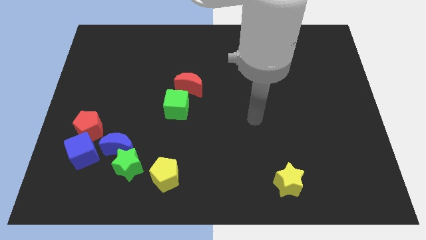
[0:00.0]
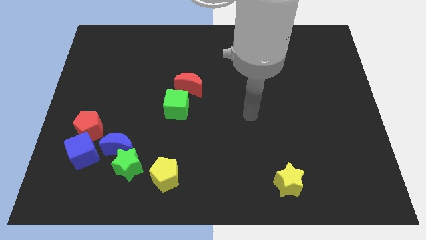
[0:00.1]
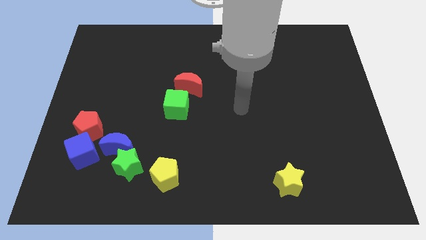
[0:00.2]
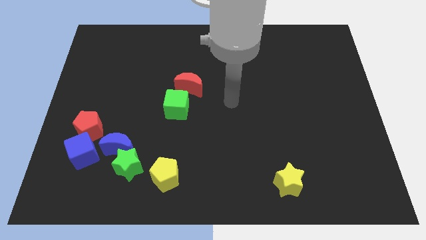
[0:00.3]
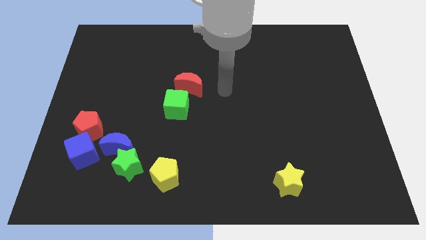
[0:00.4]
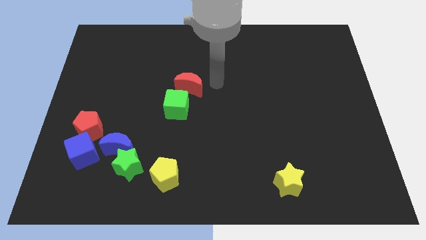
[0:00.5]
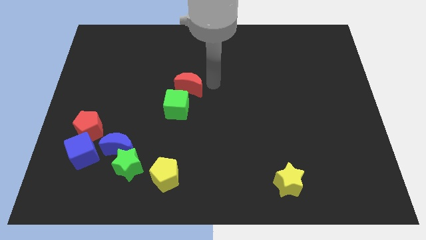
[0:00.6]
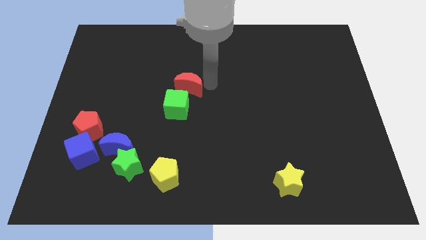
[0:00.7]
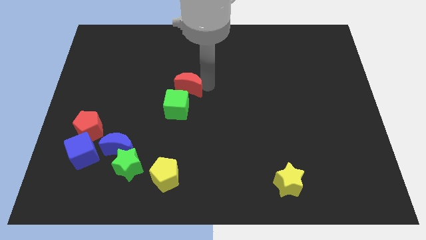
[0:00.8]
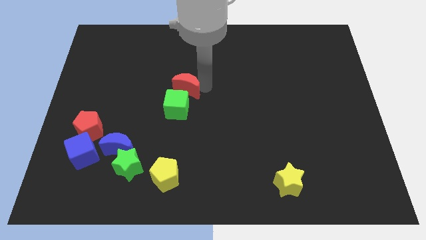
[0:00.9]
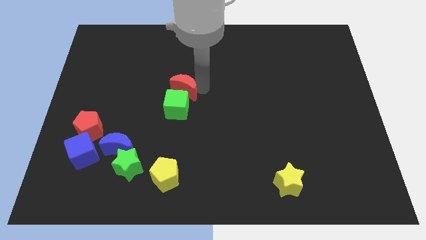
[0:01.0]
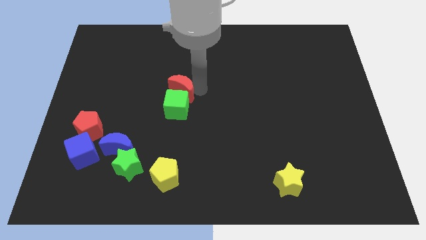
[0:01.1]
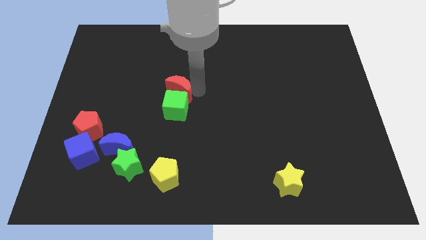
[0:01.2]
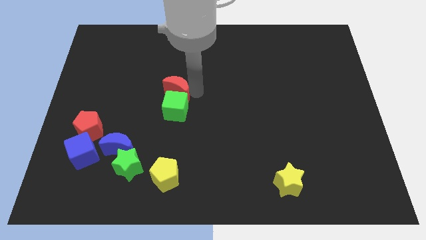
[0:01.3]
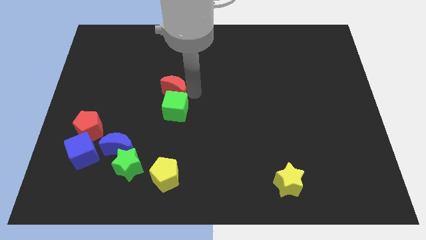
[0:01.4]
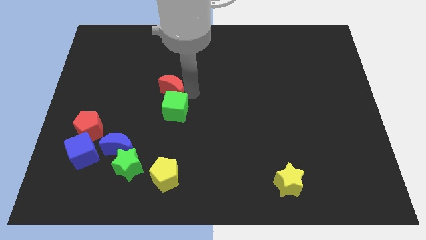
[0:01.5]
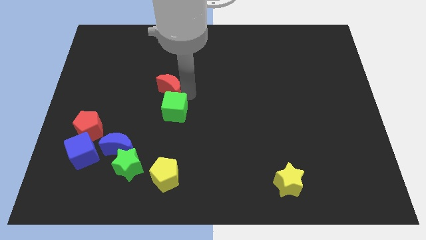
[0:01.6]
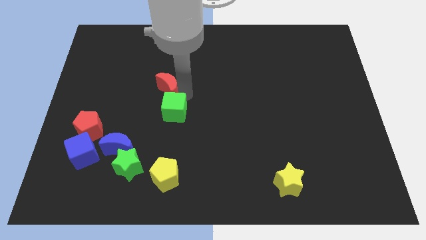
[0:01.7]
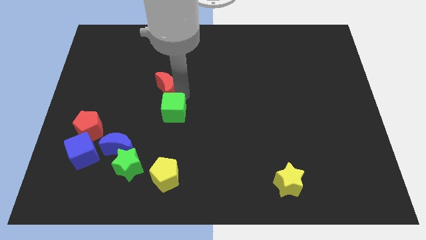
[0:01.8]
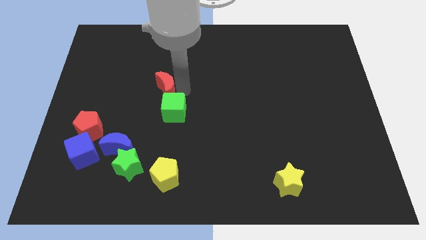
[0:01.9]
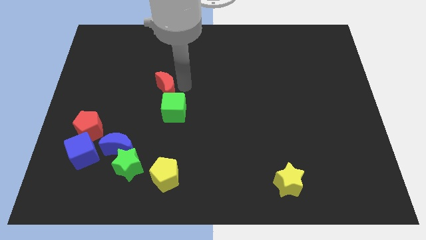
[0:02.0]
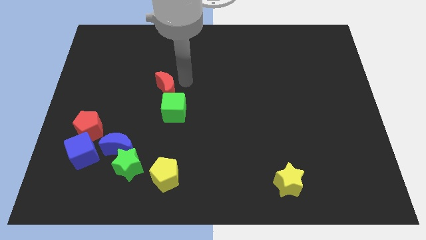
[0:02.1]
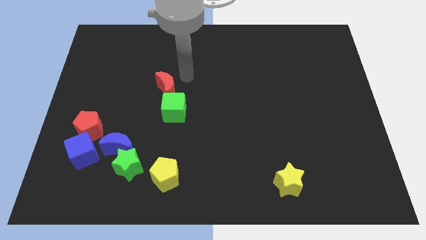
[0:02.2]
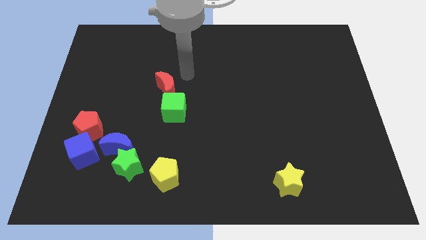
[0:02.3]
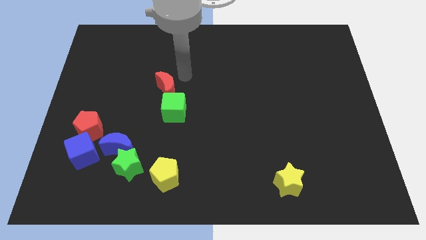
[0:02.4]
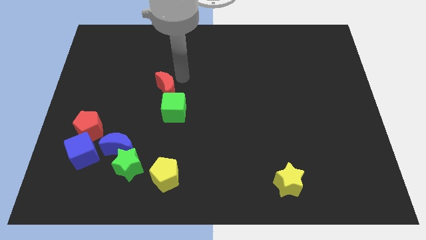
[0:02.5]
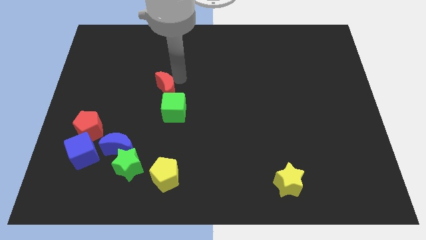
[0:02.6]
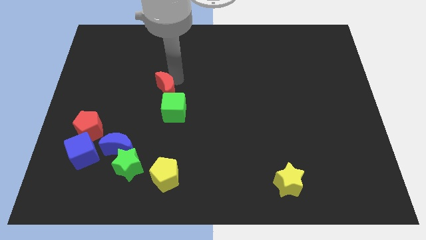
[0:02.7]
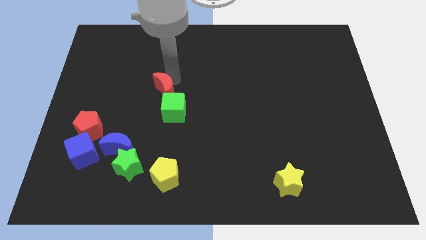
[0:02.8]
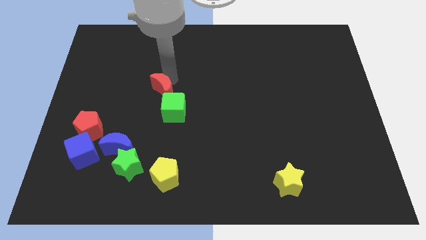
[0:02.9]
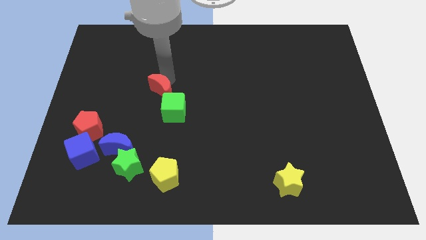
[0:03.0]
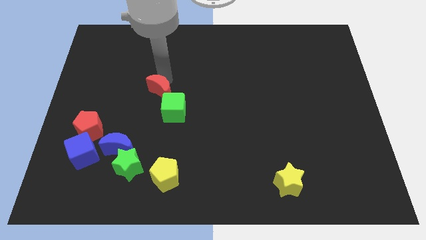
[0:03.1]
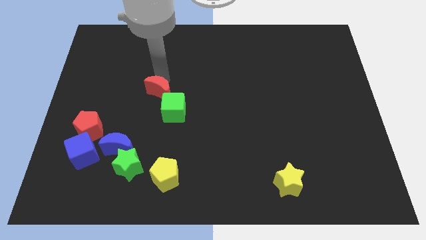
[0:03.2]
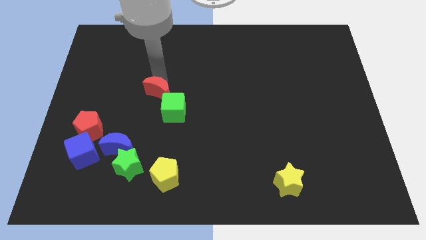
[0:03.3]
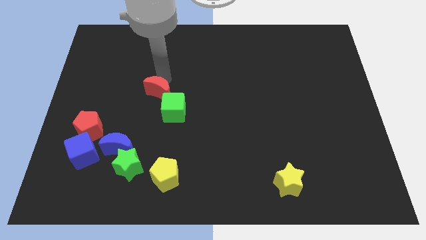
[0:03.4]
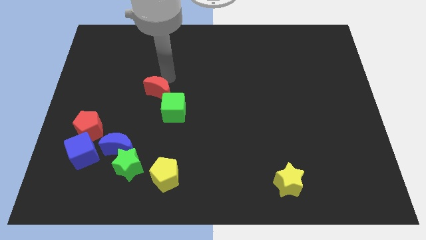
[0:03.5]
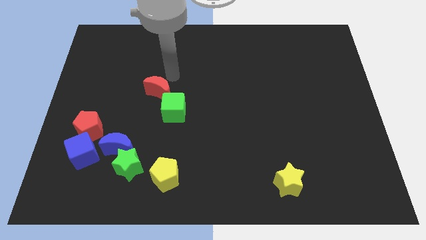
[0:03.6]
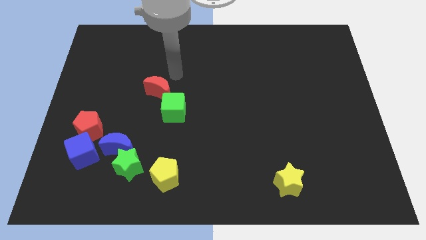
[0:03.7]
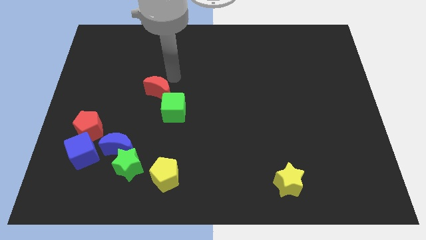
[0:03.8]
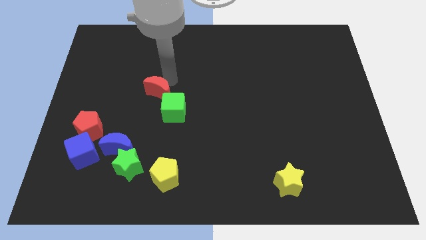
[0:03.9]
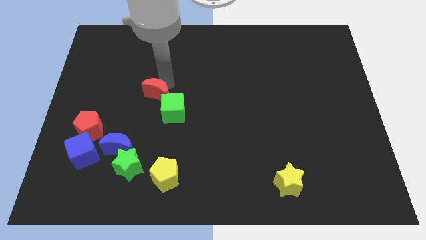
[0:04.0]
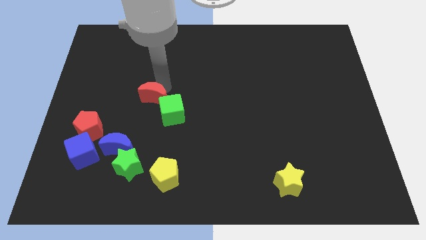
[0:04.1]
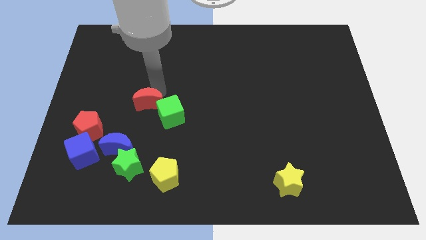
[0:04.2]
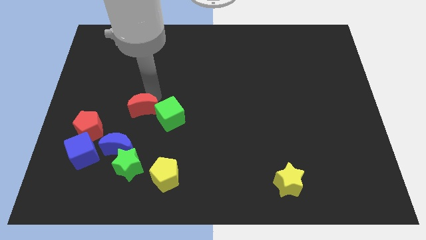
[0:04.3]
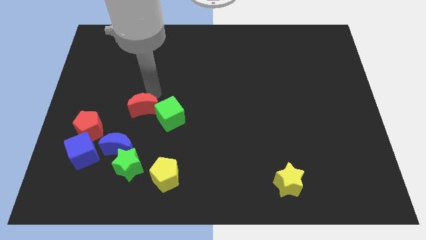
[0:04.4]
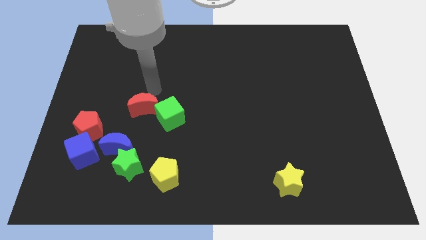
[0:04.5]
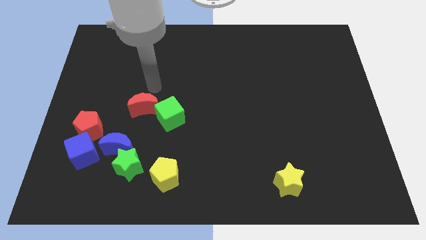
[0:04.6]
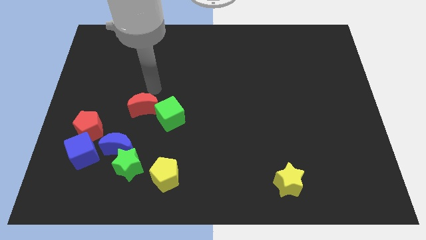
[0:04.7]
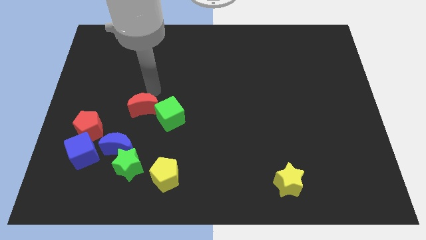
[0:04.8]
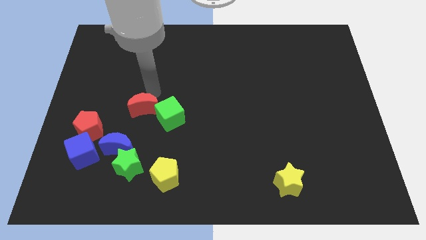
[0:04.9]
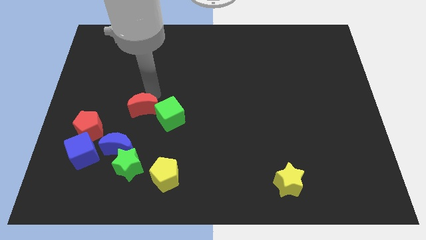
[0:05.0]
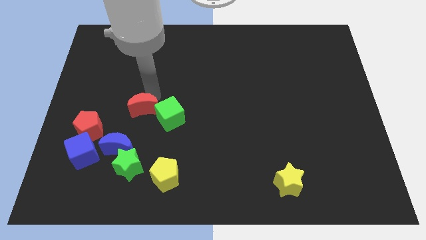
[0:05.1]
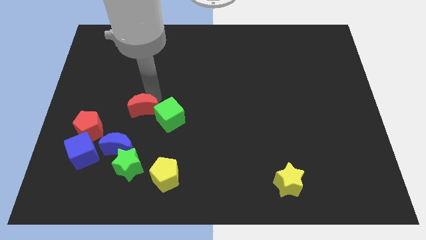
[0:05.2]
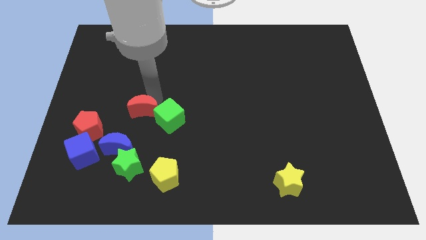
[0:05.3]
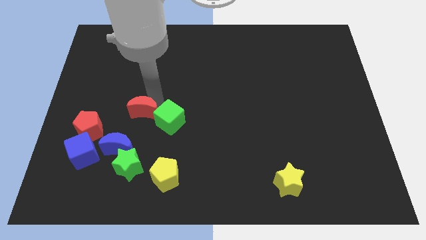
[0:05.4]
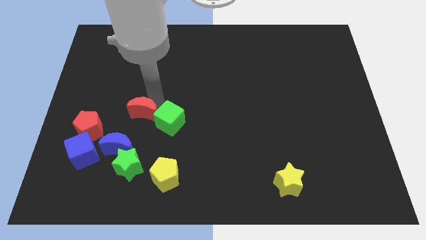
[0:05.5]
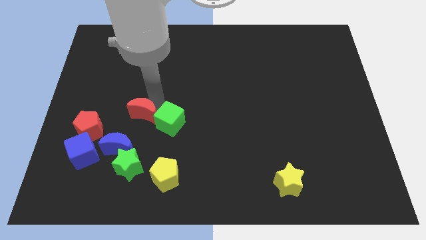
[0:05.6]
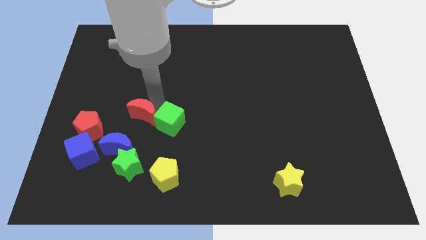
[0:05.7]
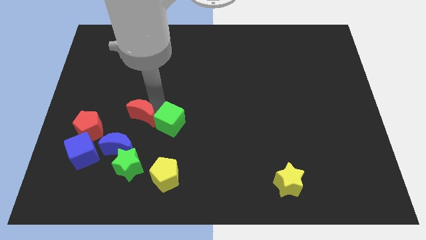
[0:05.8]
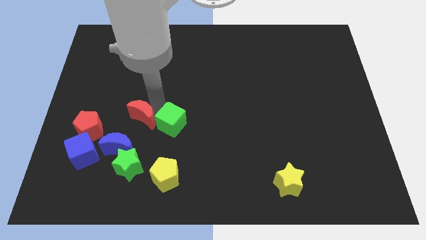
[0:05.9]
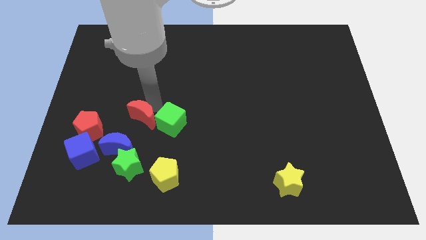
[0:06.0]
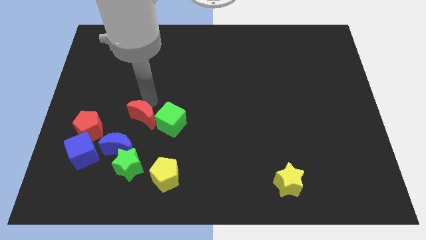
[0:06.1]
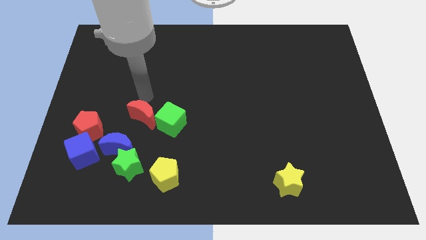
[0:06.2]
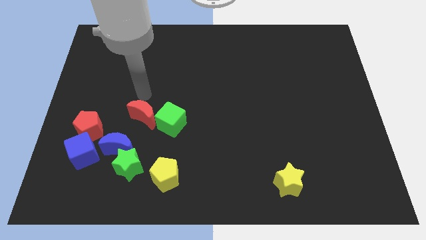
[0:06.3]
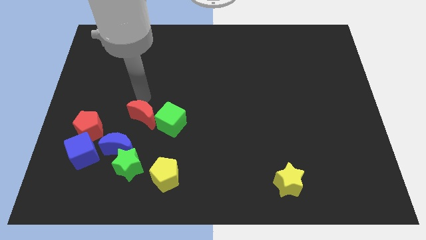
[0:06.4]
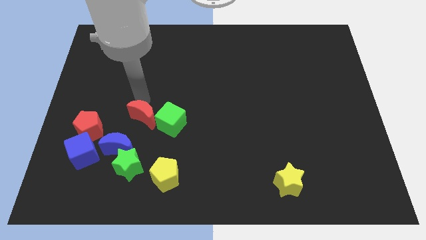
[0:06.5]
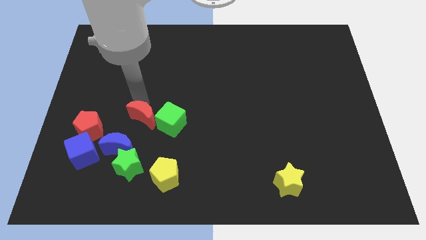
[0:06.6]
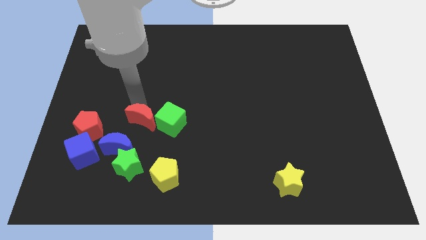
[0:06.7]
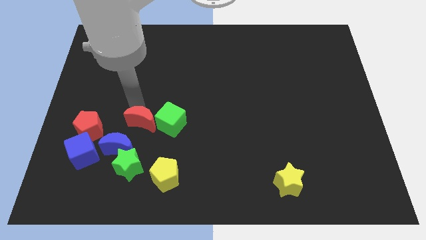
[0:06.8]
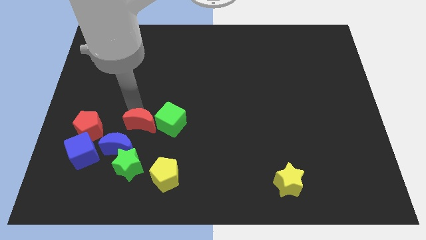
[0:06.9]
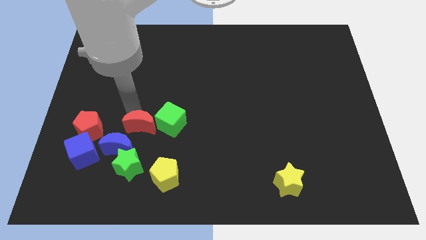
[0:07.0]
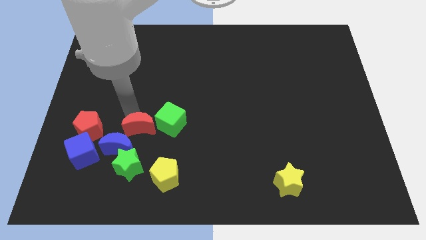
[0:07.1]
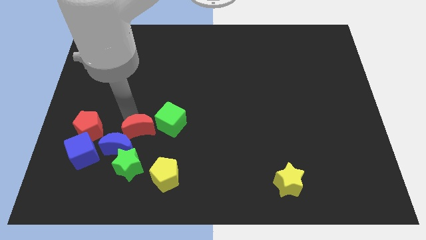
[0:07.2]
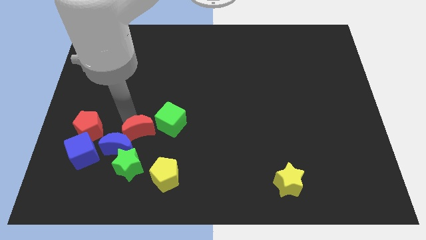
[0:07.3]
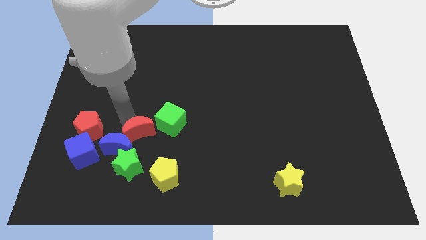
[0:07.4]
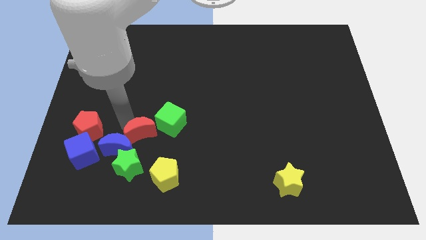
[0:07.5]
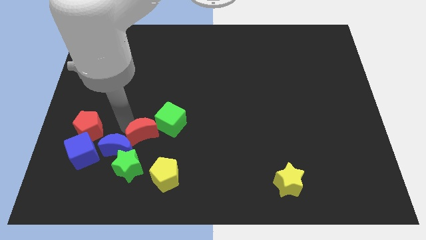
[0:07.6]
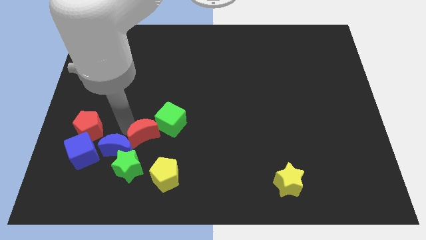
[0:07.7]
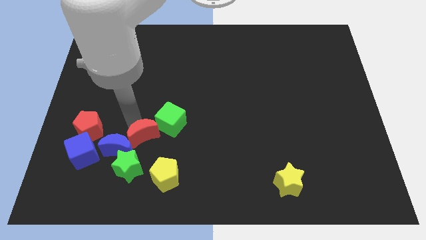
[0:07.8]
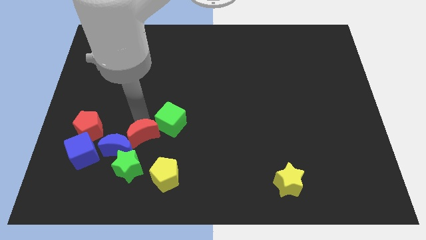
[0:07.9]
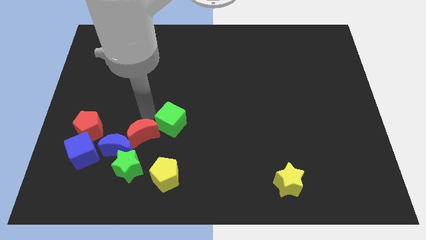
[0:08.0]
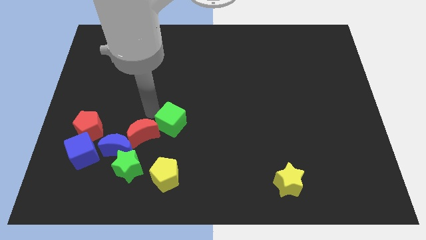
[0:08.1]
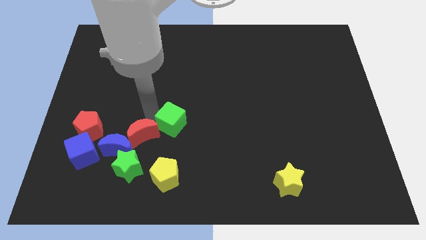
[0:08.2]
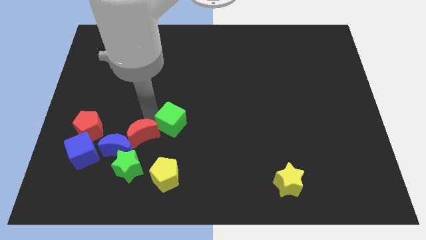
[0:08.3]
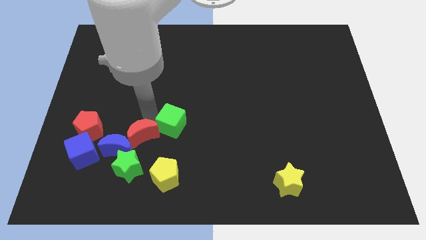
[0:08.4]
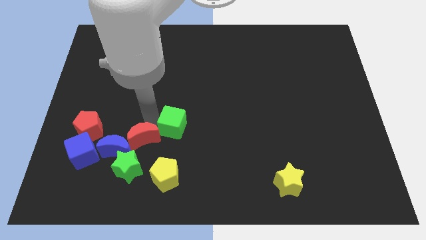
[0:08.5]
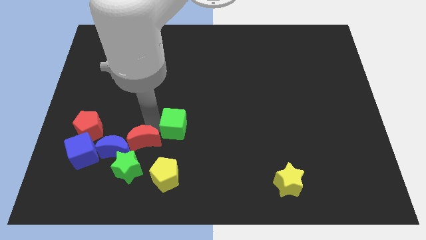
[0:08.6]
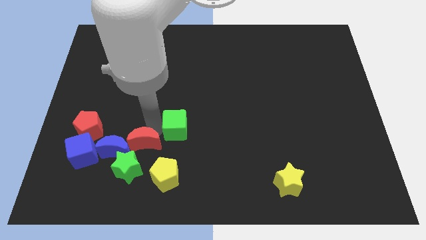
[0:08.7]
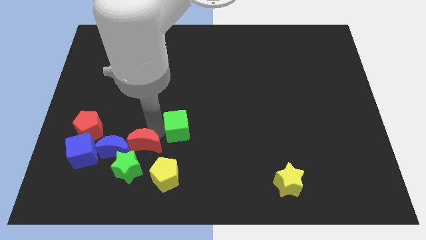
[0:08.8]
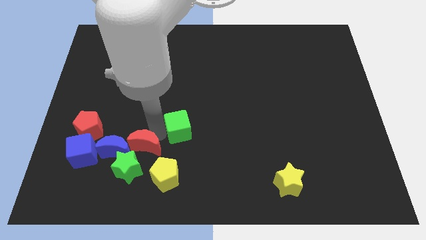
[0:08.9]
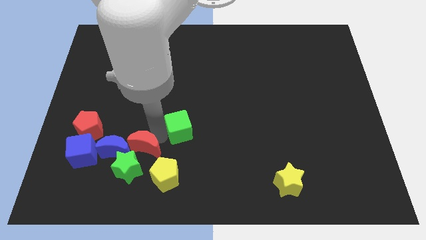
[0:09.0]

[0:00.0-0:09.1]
put the red moon towards the green star
